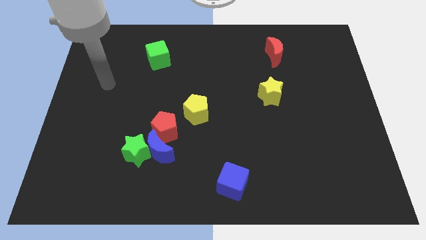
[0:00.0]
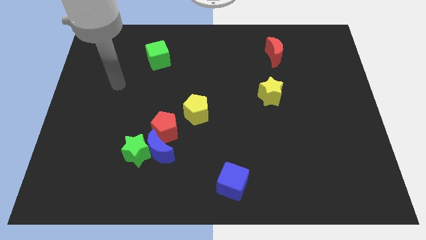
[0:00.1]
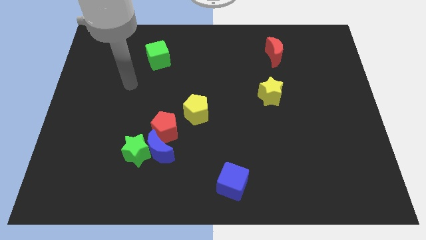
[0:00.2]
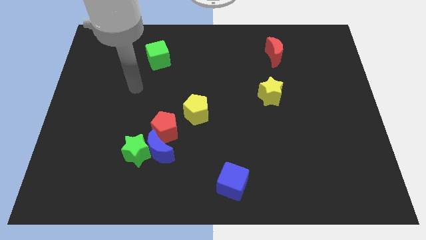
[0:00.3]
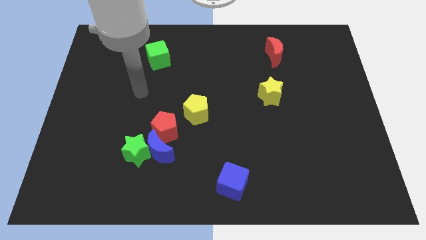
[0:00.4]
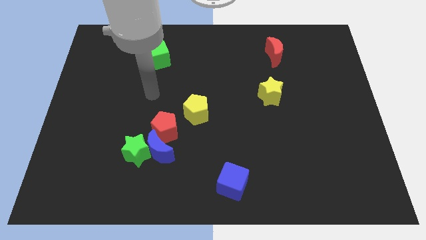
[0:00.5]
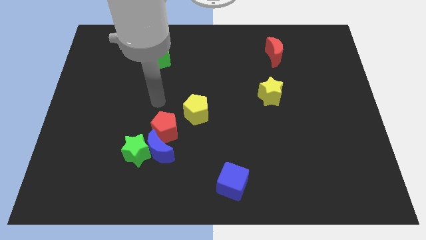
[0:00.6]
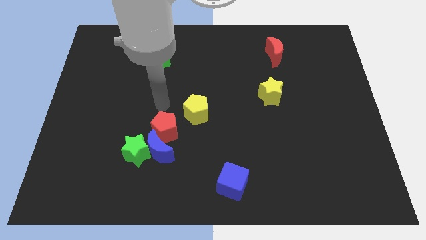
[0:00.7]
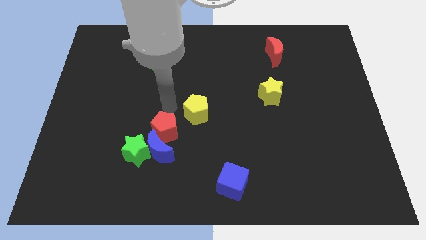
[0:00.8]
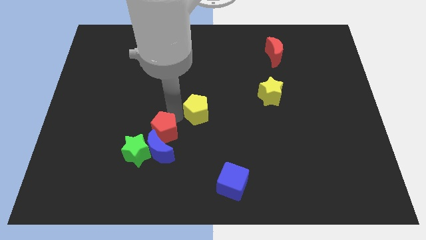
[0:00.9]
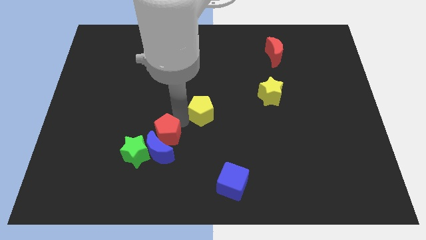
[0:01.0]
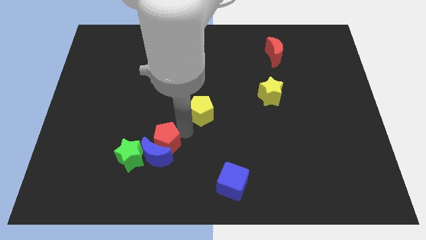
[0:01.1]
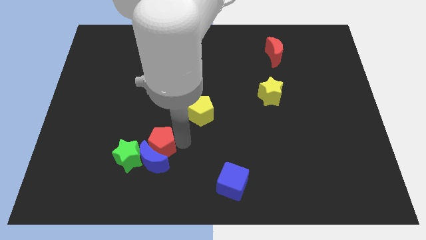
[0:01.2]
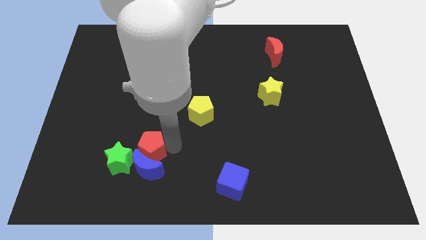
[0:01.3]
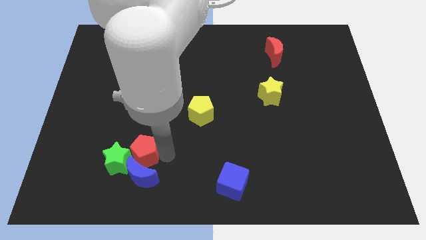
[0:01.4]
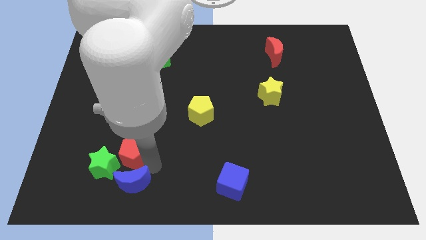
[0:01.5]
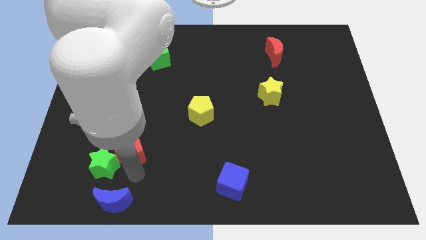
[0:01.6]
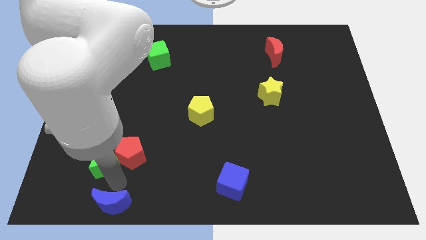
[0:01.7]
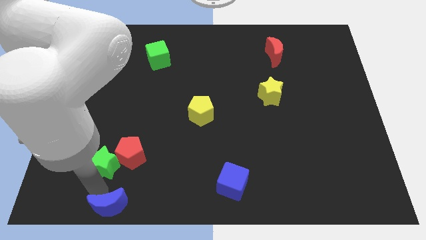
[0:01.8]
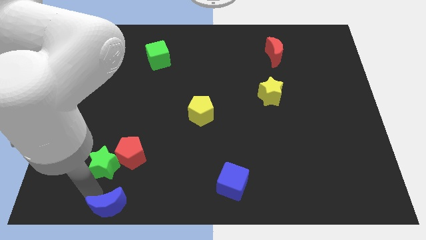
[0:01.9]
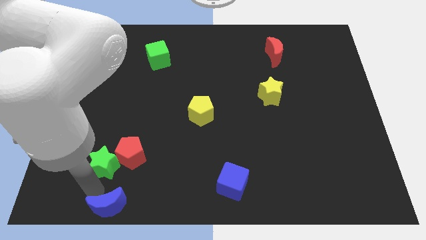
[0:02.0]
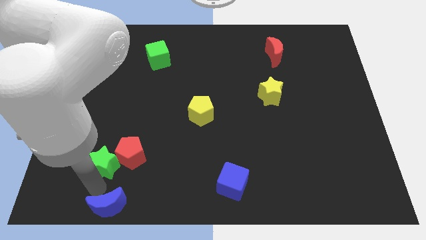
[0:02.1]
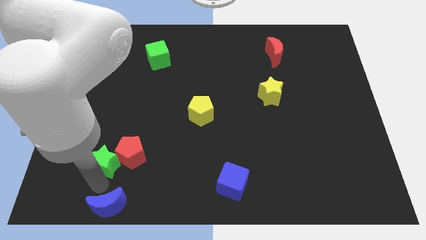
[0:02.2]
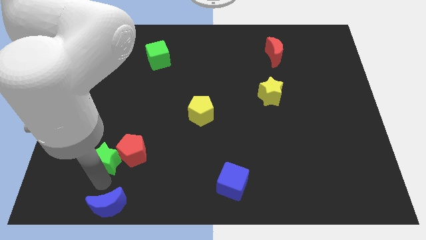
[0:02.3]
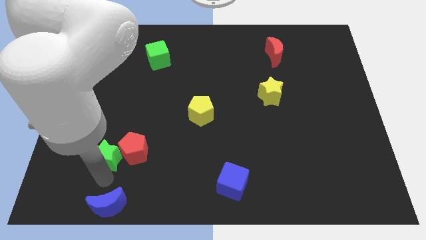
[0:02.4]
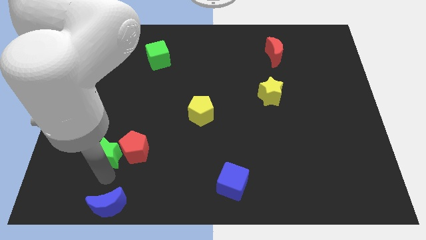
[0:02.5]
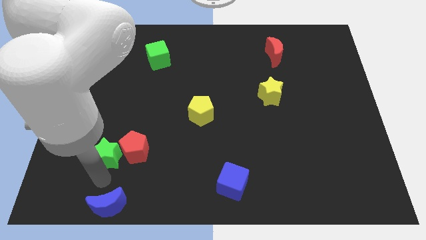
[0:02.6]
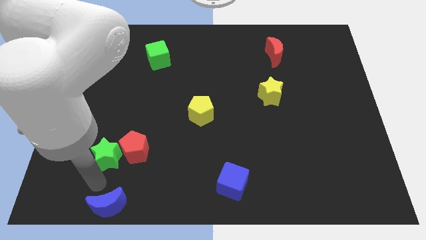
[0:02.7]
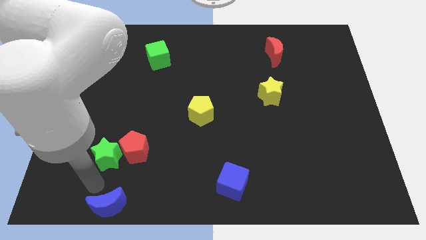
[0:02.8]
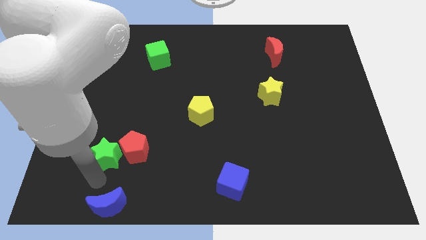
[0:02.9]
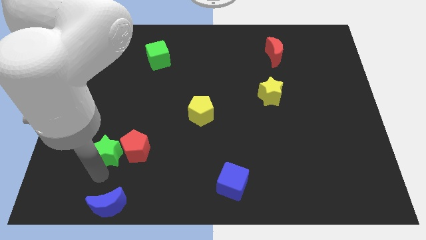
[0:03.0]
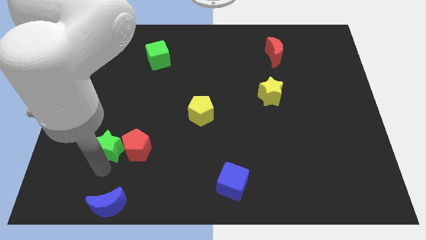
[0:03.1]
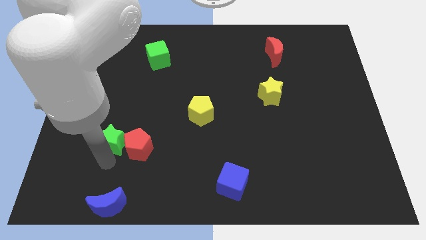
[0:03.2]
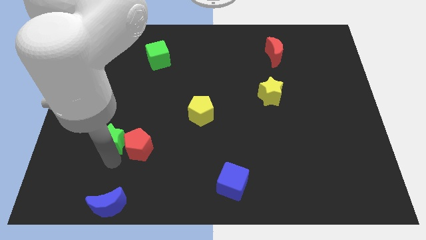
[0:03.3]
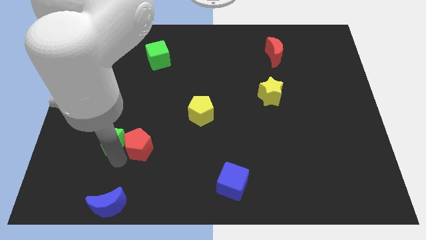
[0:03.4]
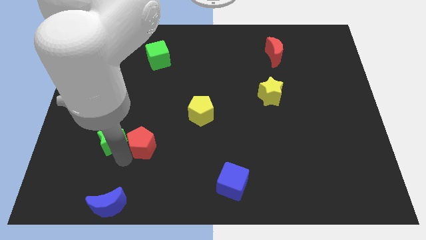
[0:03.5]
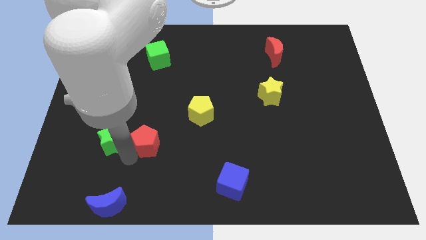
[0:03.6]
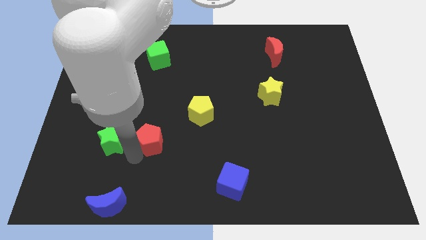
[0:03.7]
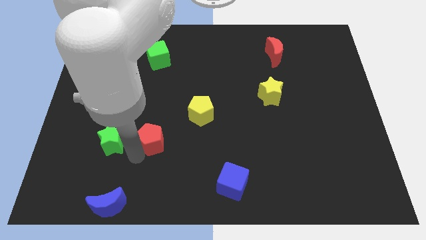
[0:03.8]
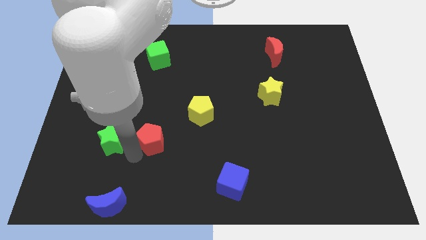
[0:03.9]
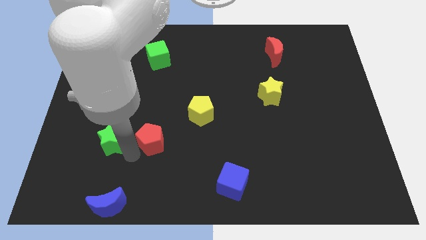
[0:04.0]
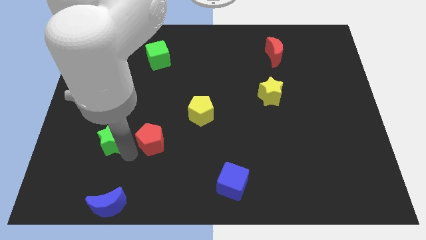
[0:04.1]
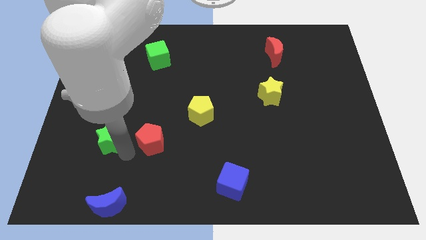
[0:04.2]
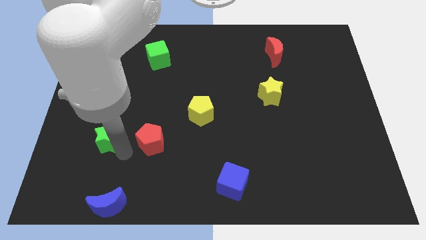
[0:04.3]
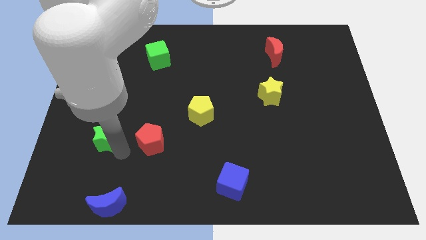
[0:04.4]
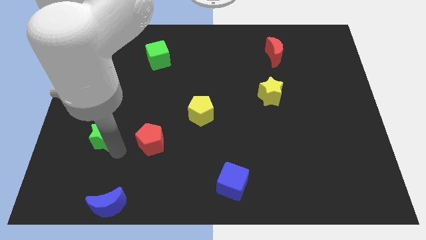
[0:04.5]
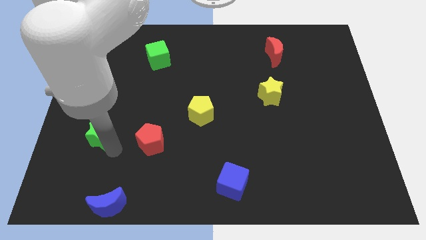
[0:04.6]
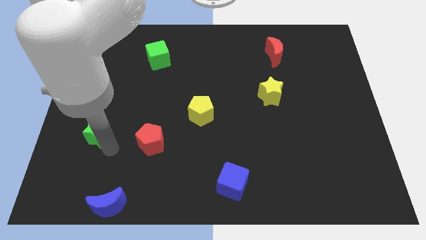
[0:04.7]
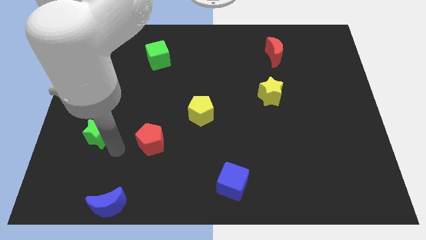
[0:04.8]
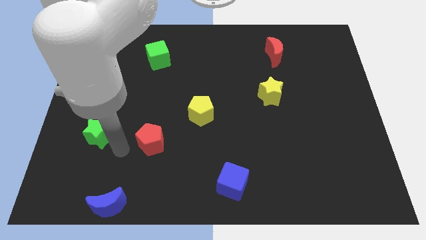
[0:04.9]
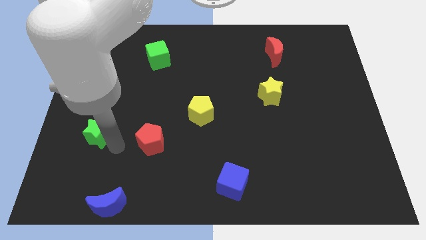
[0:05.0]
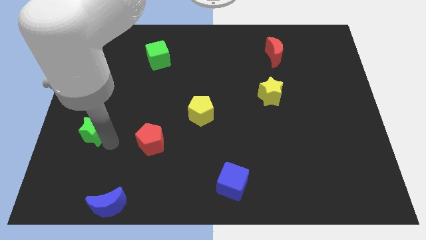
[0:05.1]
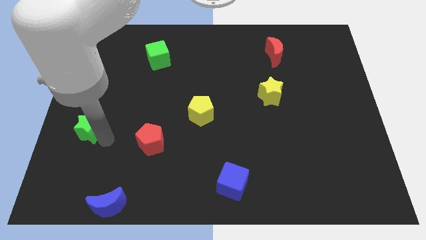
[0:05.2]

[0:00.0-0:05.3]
move the green star to the left side of the board

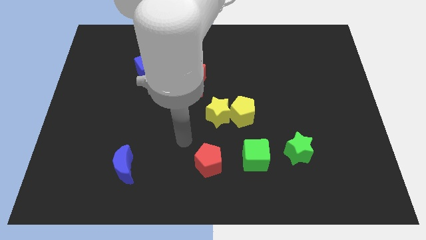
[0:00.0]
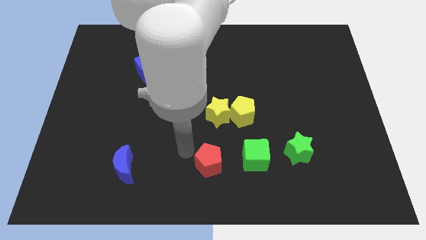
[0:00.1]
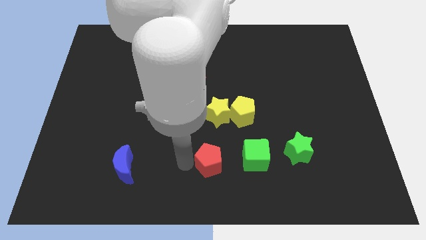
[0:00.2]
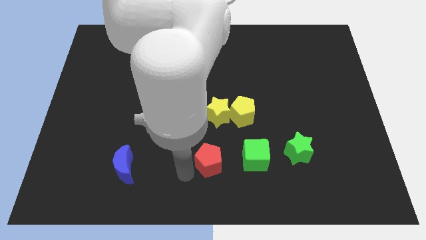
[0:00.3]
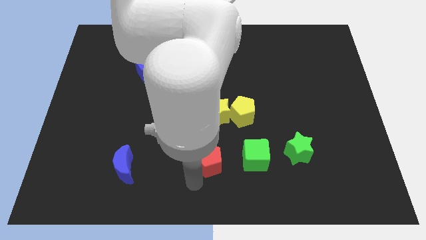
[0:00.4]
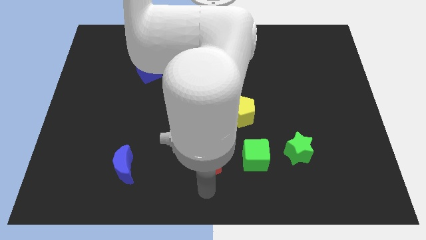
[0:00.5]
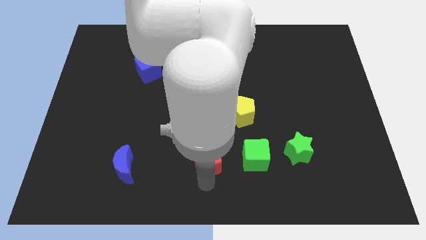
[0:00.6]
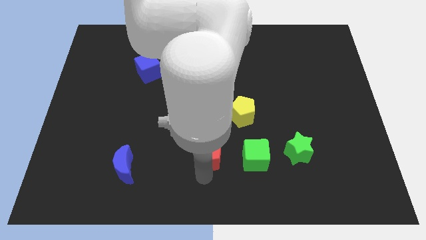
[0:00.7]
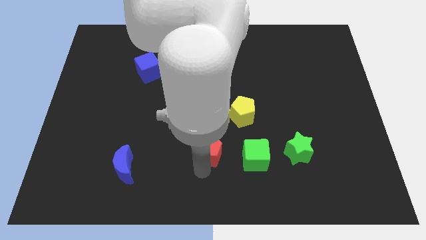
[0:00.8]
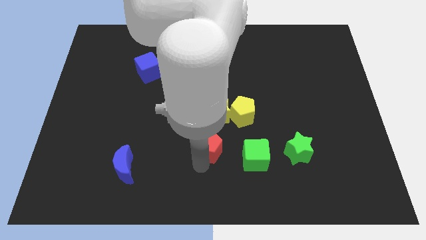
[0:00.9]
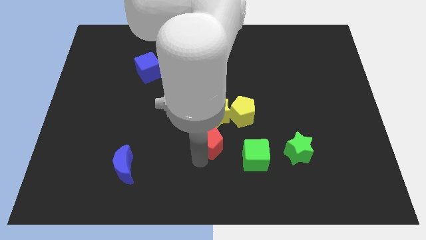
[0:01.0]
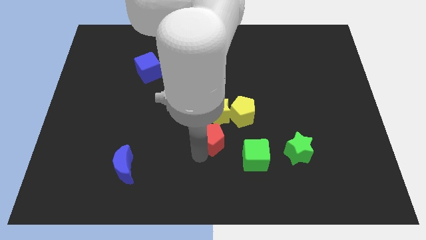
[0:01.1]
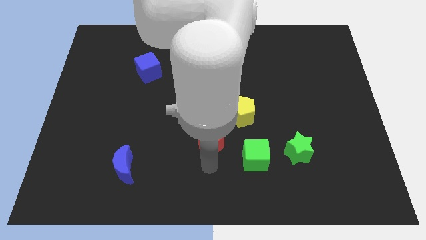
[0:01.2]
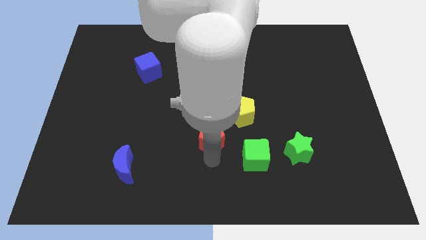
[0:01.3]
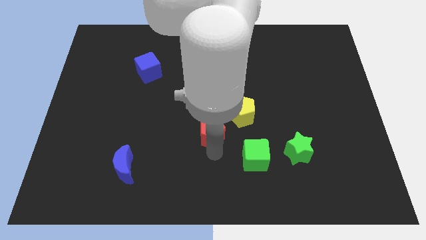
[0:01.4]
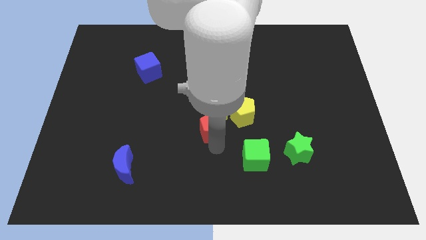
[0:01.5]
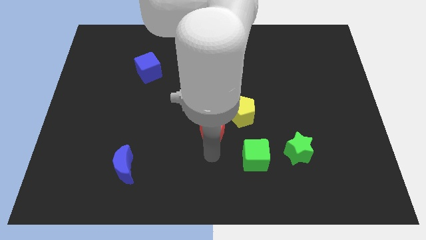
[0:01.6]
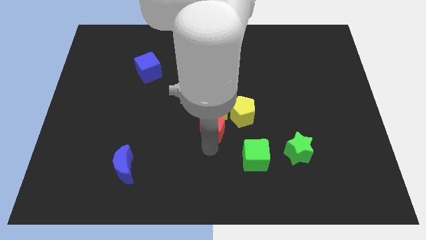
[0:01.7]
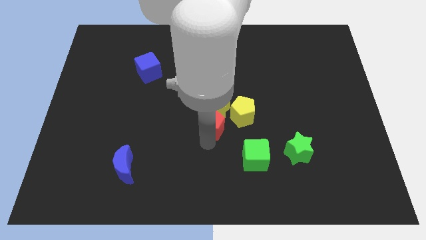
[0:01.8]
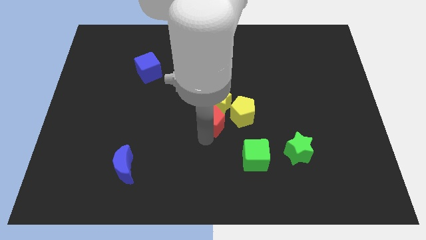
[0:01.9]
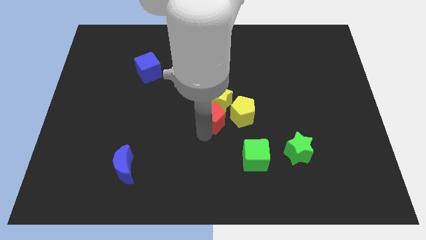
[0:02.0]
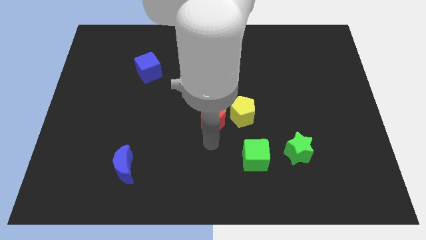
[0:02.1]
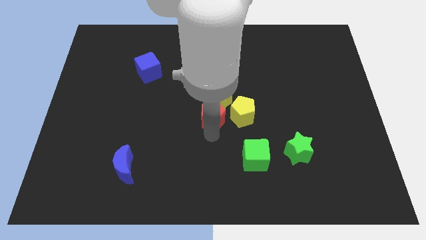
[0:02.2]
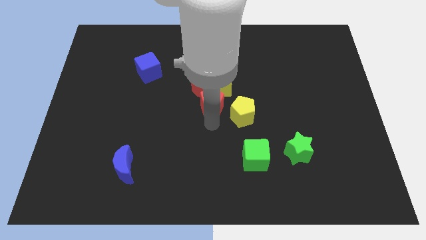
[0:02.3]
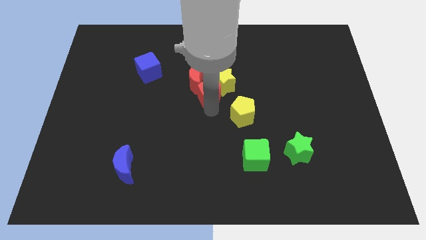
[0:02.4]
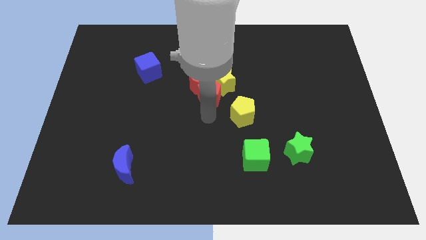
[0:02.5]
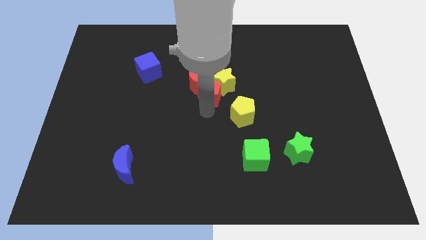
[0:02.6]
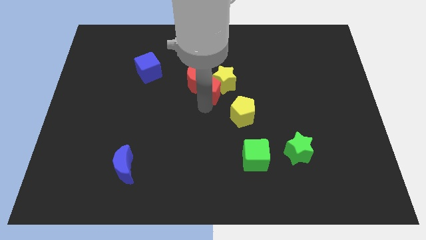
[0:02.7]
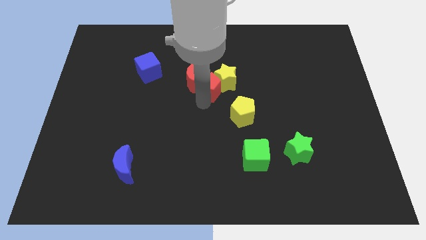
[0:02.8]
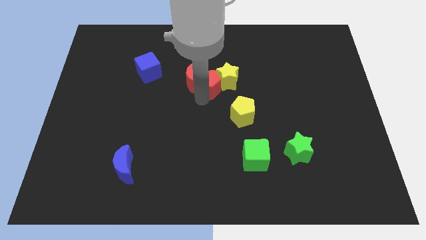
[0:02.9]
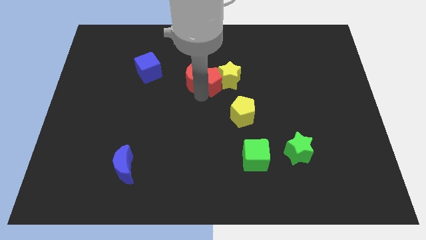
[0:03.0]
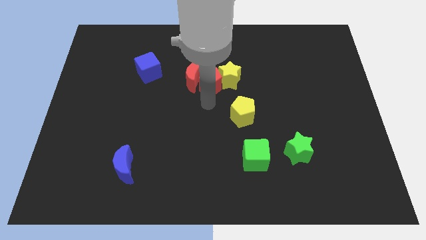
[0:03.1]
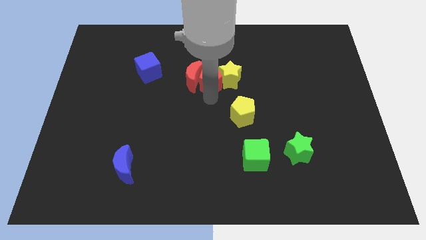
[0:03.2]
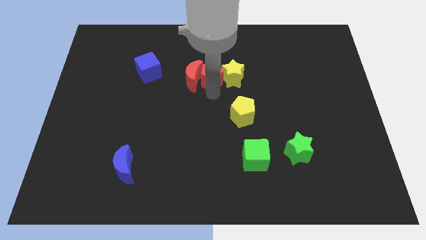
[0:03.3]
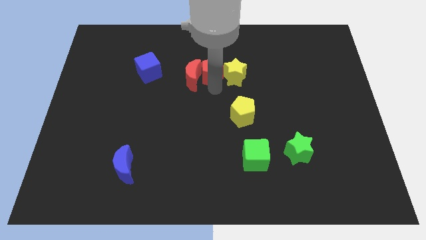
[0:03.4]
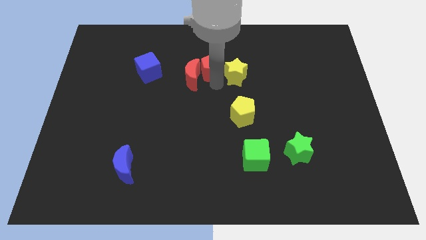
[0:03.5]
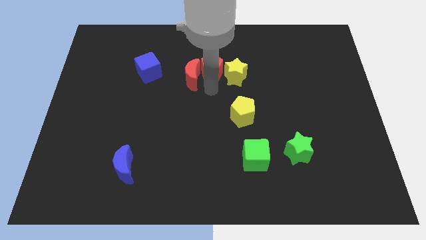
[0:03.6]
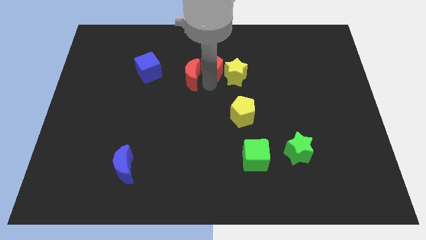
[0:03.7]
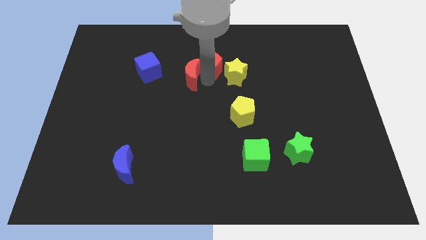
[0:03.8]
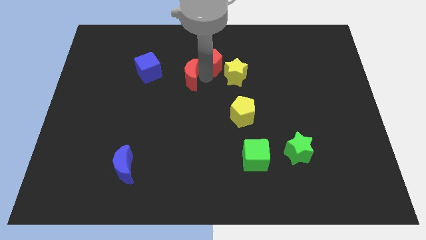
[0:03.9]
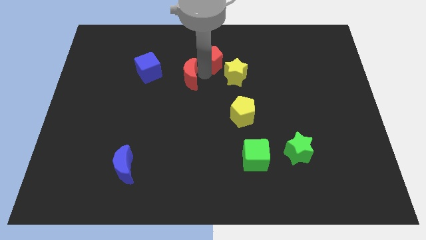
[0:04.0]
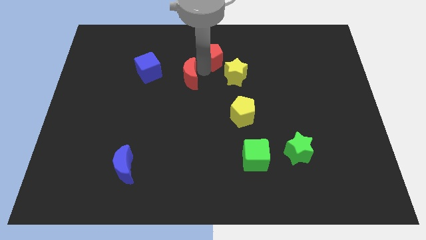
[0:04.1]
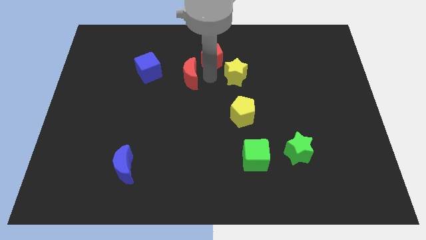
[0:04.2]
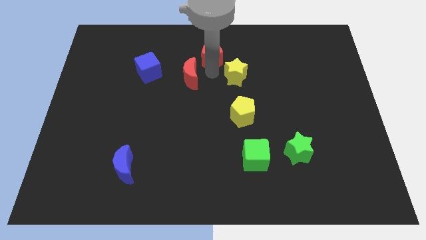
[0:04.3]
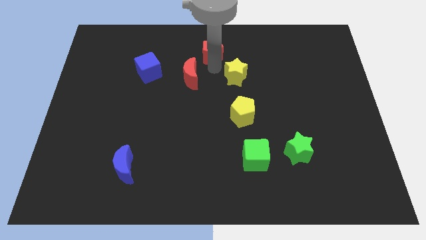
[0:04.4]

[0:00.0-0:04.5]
put the red pentagon to the towards your base
